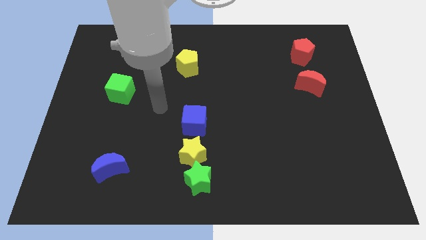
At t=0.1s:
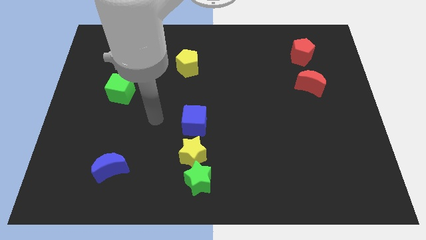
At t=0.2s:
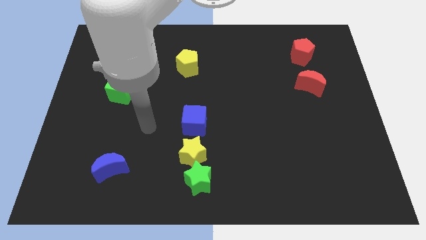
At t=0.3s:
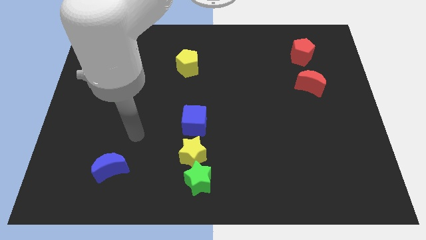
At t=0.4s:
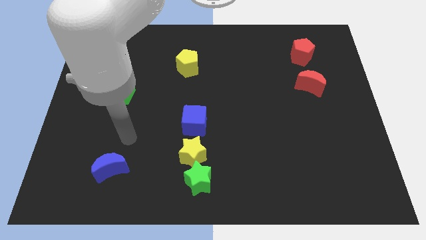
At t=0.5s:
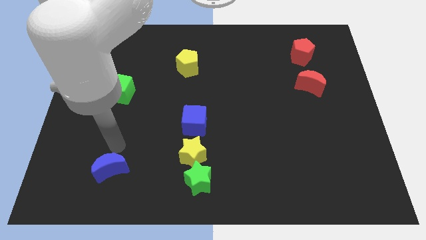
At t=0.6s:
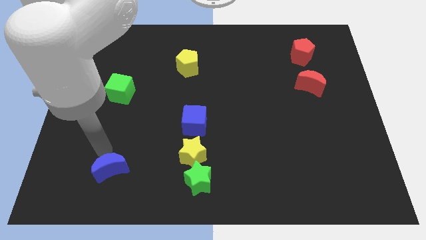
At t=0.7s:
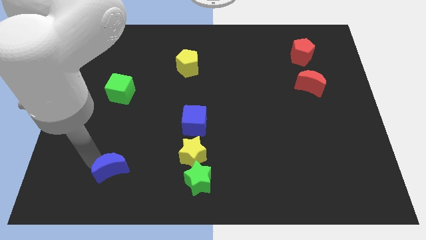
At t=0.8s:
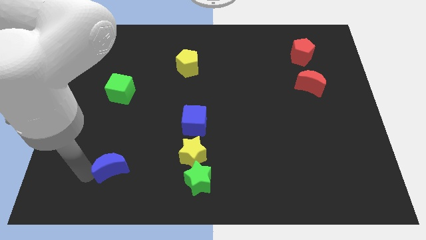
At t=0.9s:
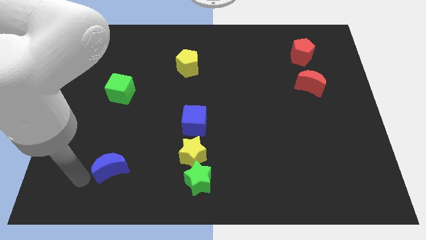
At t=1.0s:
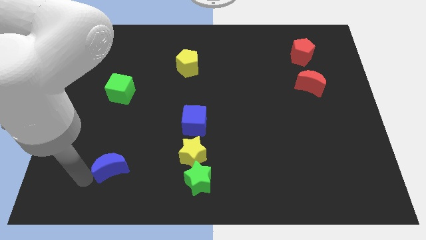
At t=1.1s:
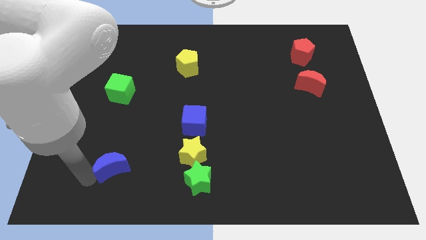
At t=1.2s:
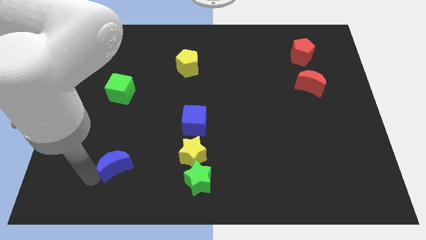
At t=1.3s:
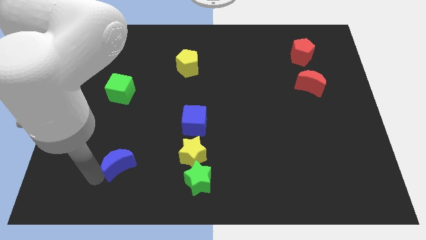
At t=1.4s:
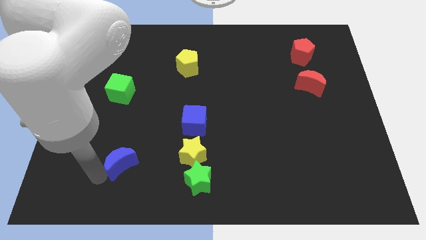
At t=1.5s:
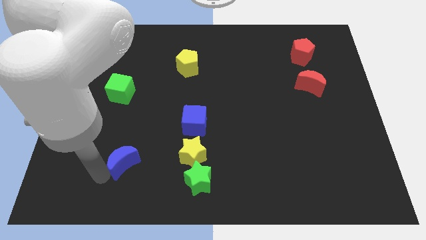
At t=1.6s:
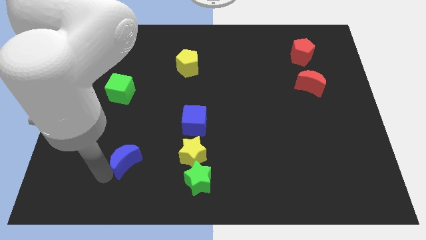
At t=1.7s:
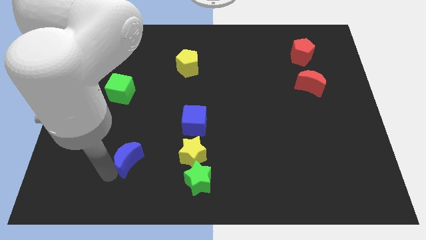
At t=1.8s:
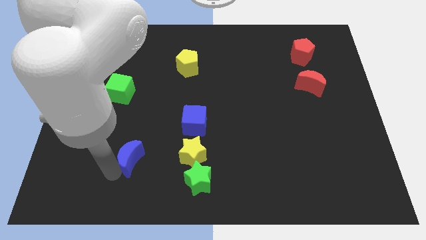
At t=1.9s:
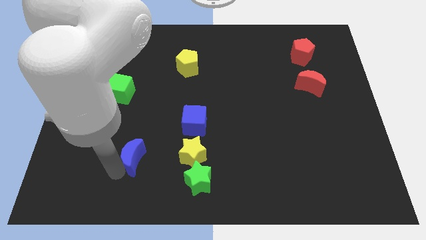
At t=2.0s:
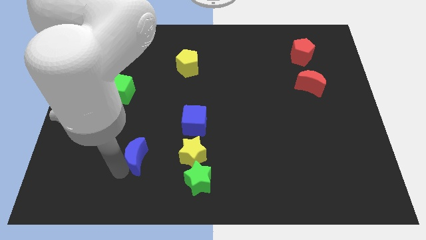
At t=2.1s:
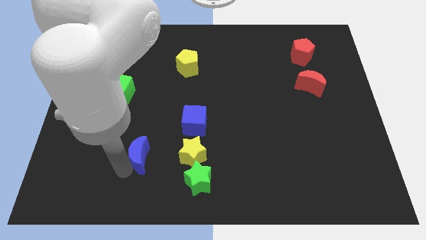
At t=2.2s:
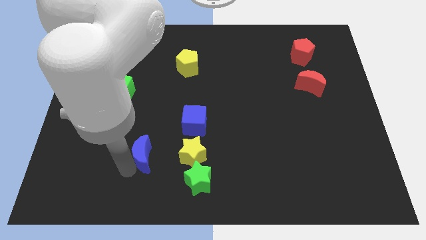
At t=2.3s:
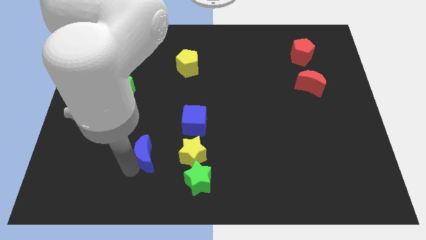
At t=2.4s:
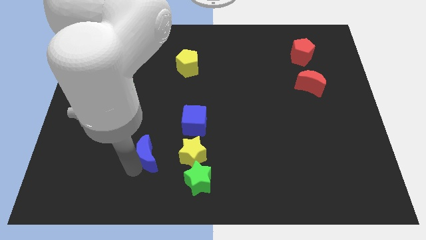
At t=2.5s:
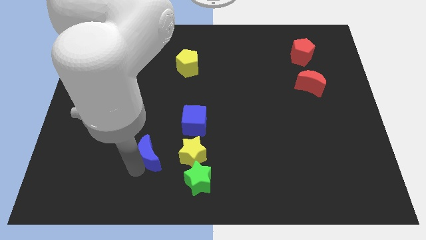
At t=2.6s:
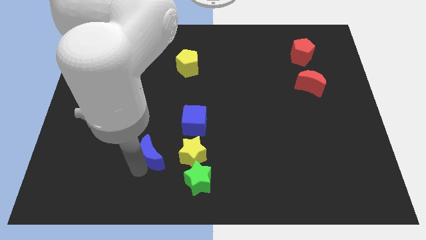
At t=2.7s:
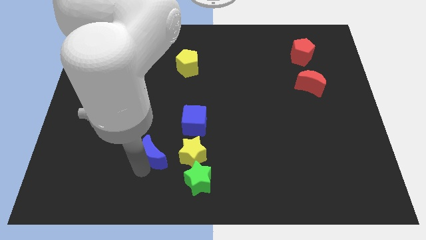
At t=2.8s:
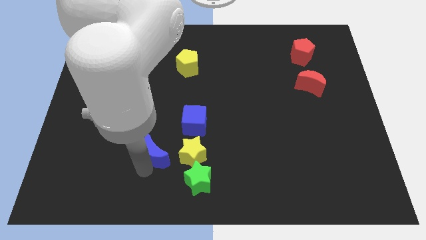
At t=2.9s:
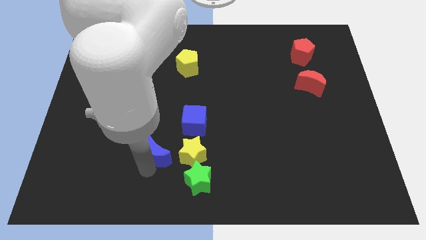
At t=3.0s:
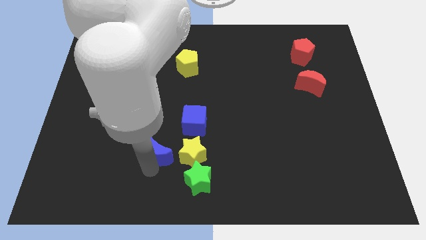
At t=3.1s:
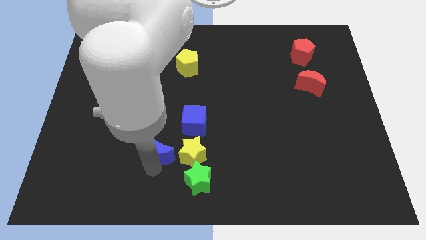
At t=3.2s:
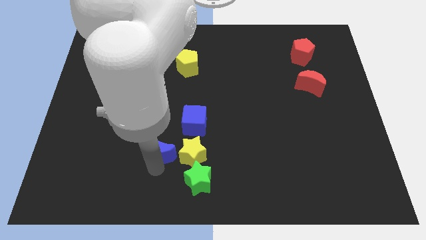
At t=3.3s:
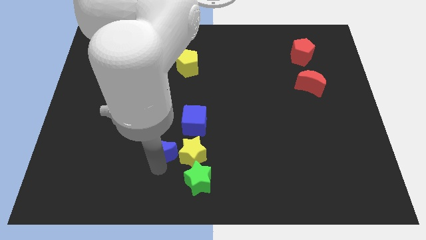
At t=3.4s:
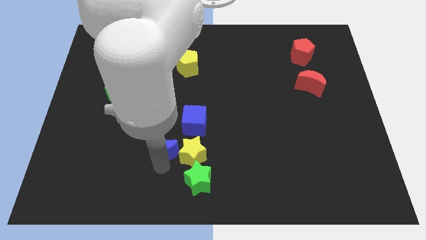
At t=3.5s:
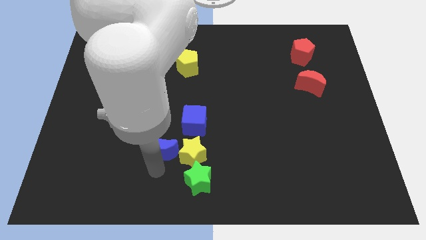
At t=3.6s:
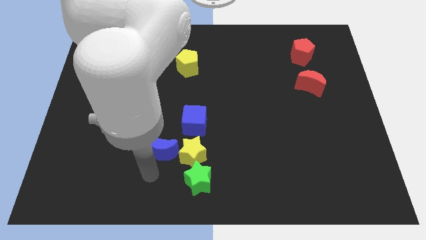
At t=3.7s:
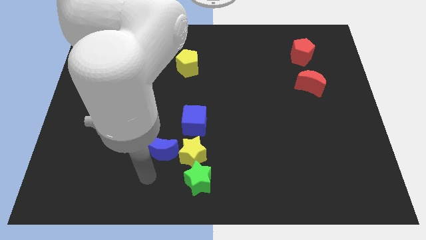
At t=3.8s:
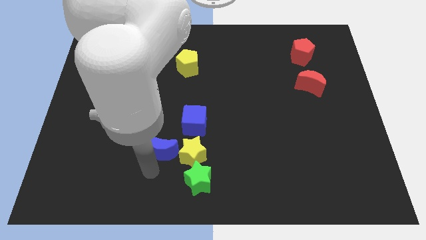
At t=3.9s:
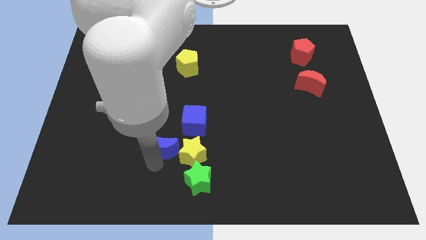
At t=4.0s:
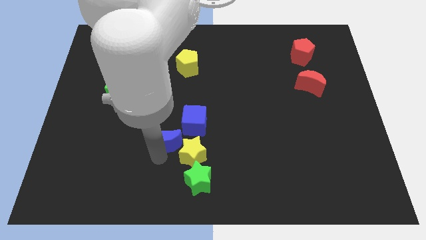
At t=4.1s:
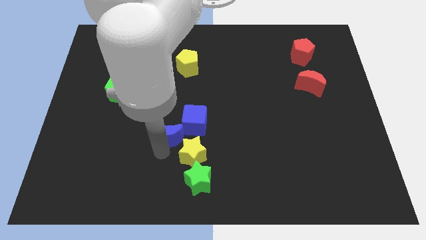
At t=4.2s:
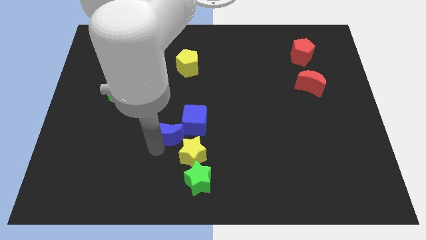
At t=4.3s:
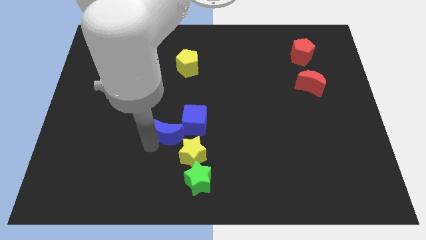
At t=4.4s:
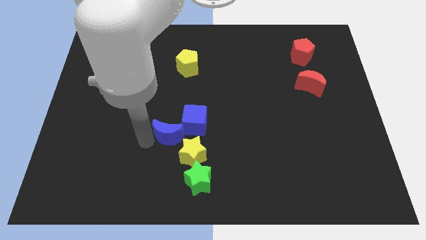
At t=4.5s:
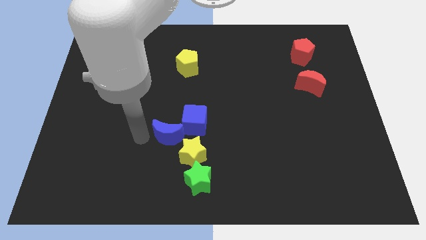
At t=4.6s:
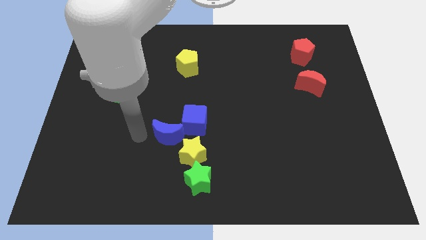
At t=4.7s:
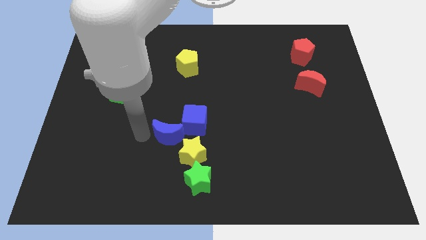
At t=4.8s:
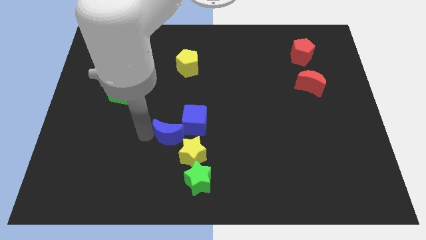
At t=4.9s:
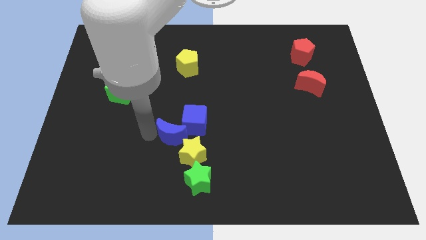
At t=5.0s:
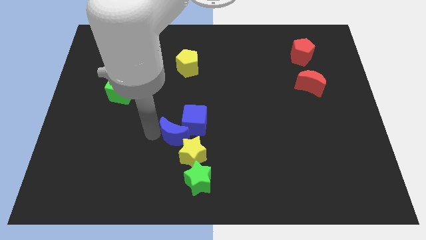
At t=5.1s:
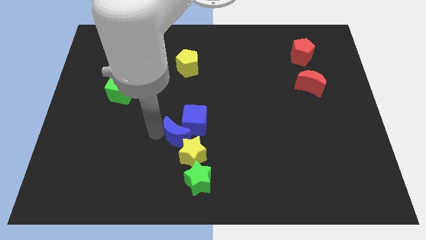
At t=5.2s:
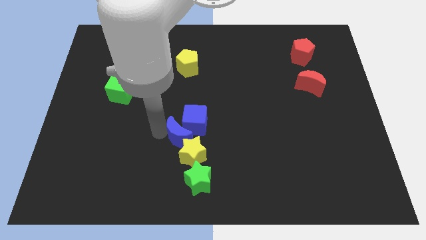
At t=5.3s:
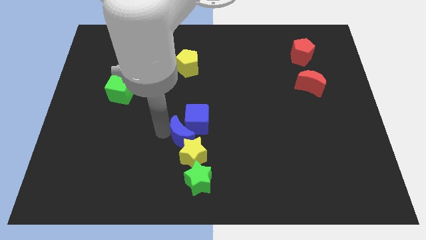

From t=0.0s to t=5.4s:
push the blue moon to the top side of the green star

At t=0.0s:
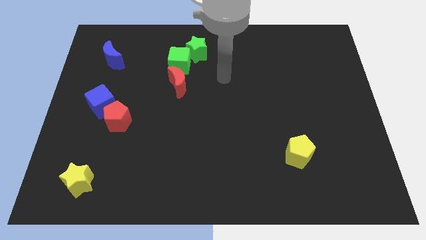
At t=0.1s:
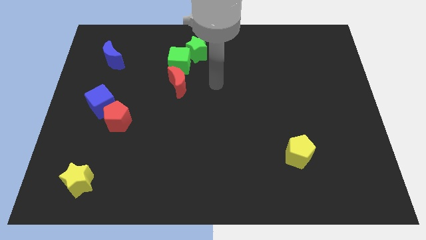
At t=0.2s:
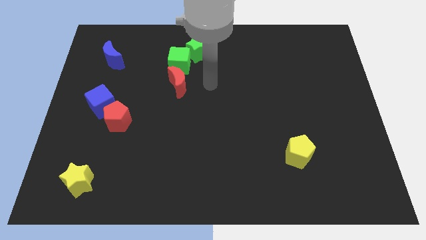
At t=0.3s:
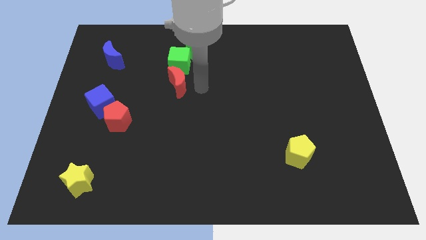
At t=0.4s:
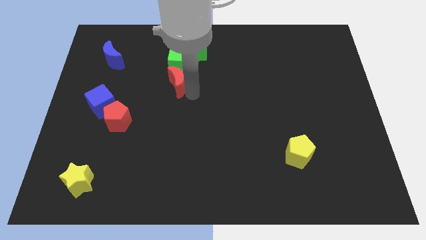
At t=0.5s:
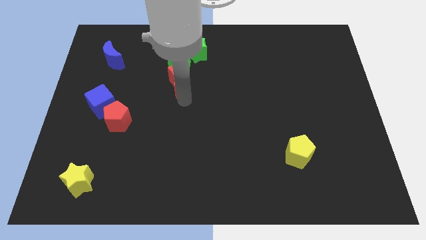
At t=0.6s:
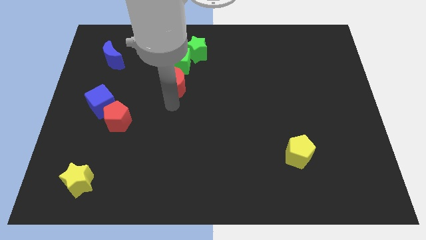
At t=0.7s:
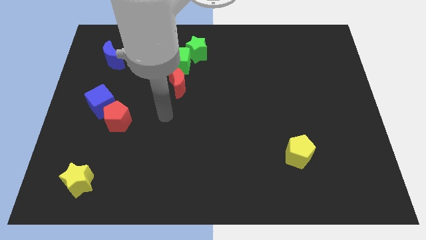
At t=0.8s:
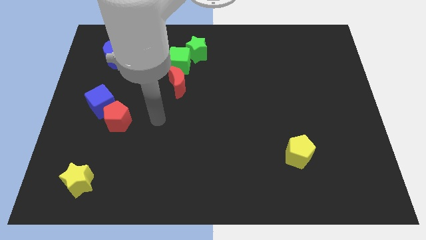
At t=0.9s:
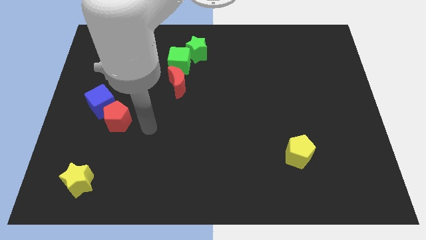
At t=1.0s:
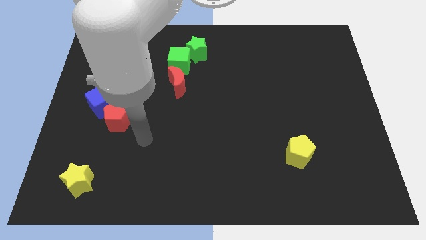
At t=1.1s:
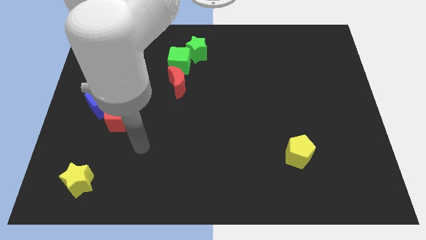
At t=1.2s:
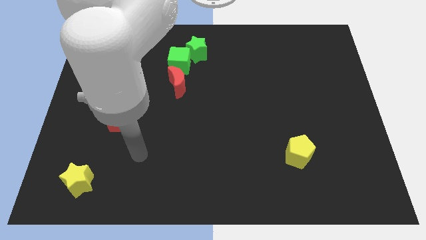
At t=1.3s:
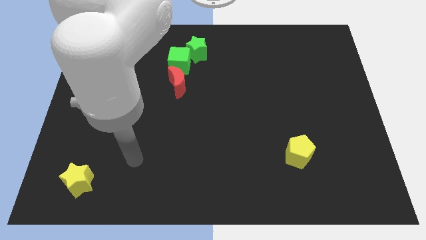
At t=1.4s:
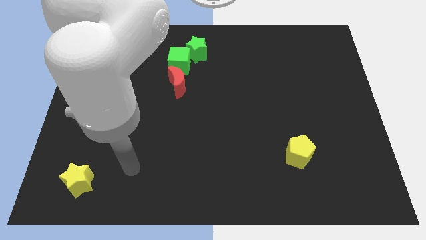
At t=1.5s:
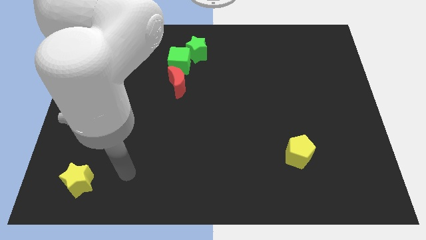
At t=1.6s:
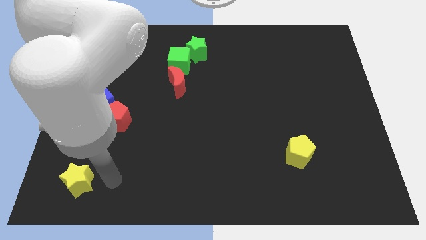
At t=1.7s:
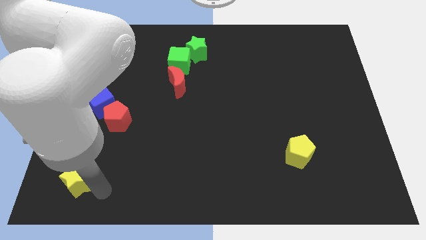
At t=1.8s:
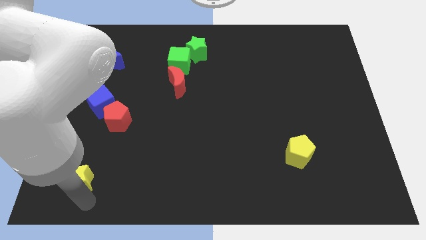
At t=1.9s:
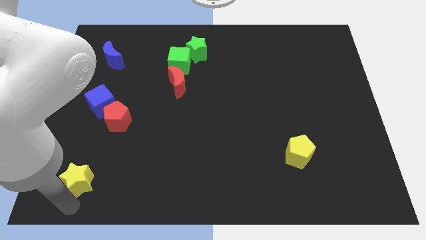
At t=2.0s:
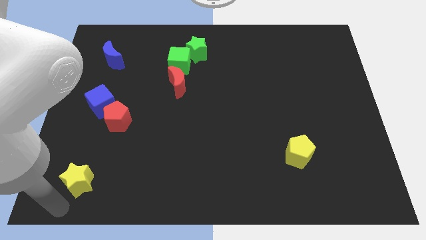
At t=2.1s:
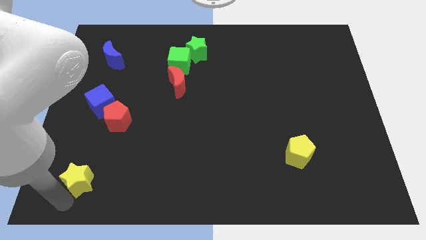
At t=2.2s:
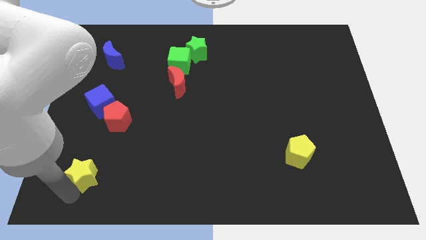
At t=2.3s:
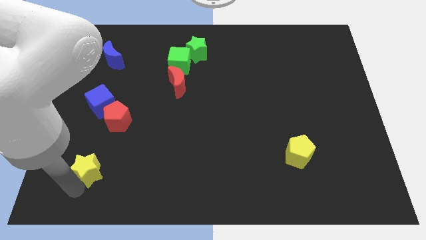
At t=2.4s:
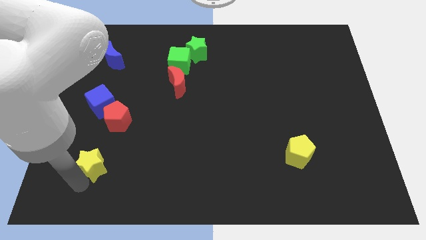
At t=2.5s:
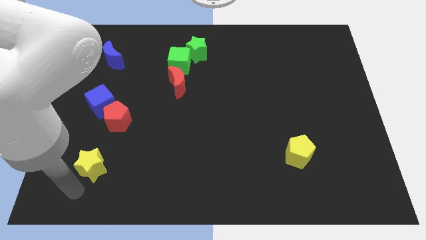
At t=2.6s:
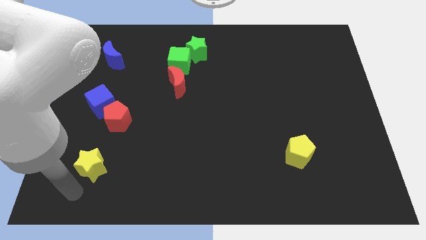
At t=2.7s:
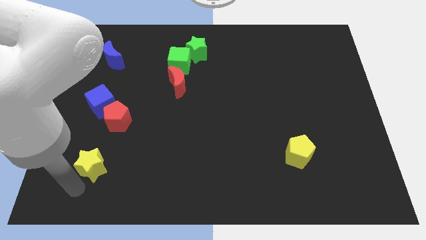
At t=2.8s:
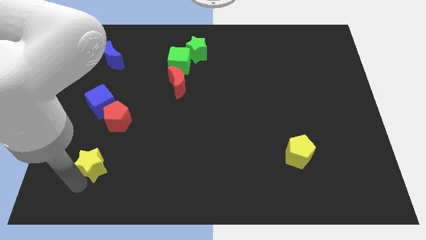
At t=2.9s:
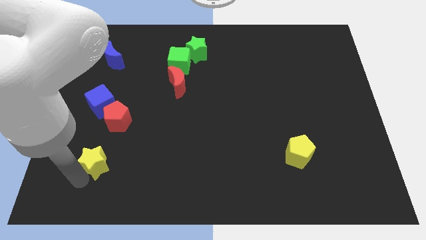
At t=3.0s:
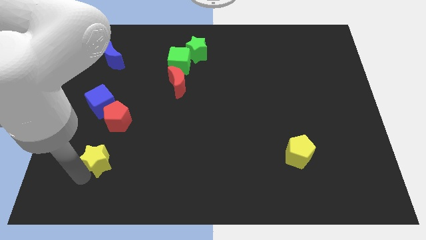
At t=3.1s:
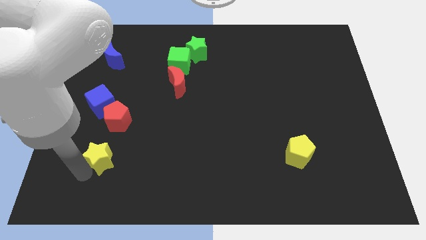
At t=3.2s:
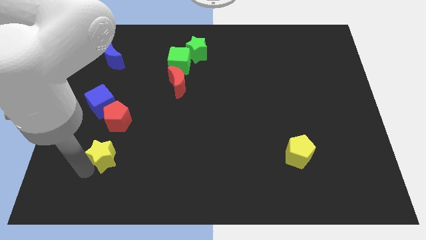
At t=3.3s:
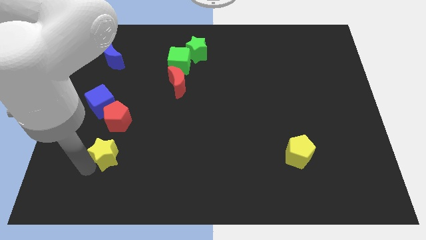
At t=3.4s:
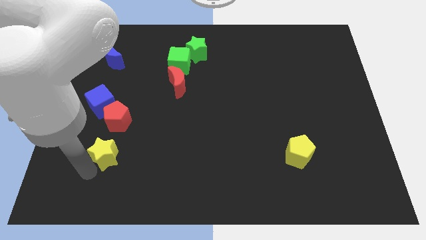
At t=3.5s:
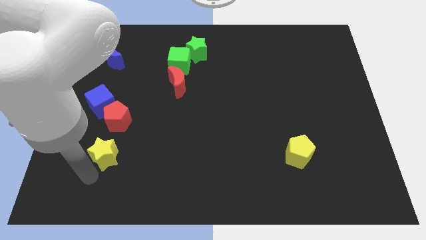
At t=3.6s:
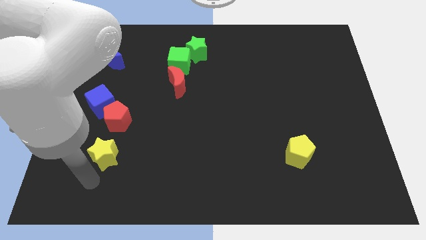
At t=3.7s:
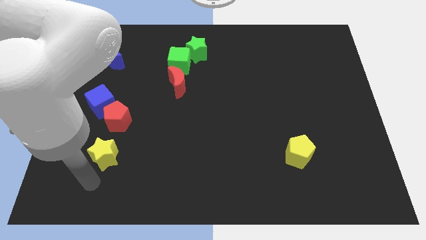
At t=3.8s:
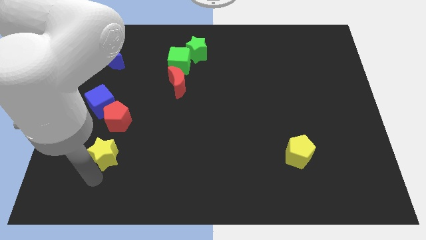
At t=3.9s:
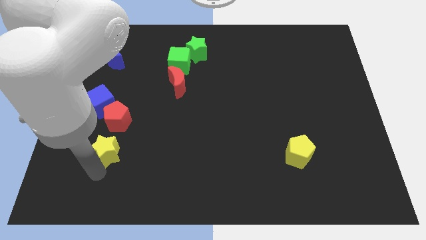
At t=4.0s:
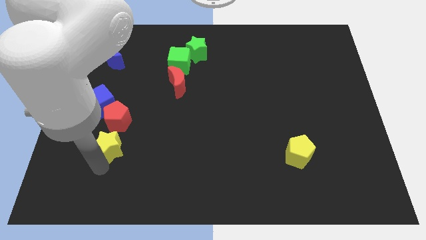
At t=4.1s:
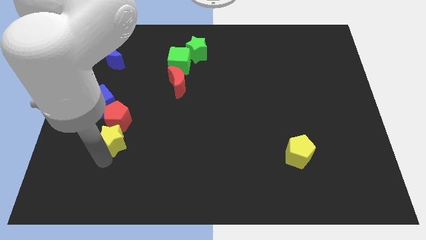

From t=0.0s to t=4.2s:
move the yellow star diagonally down and to the right of the blue cube
